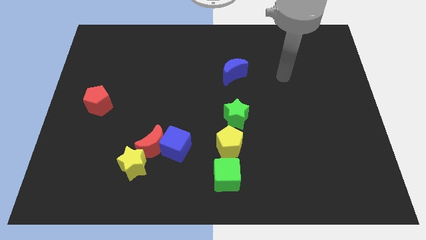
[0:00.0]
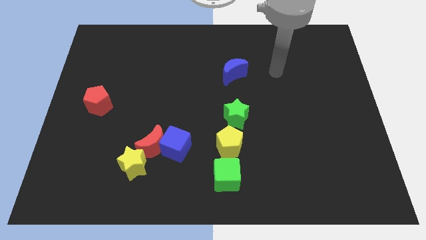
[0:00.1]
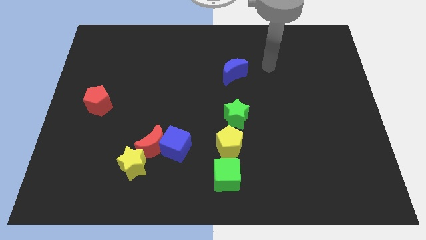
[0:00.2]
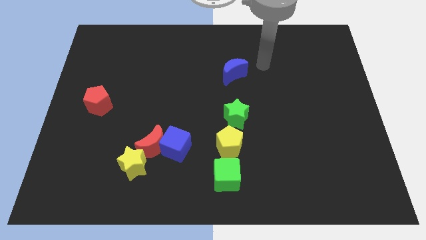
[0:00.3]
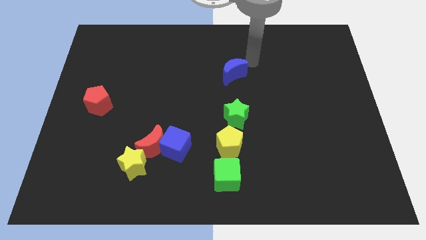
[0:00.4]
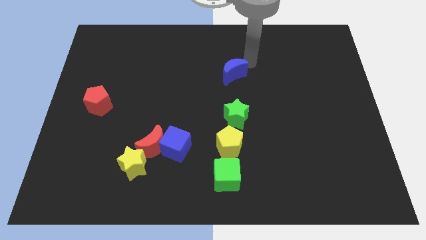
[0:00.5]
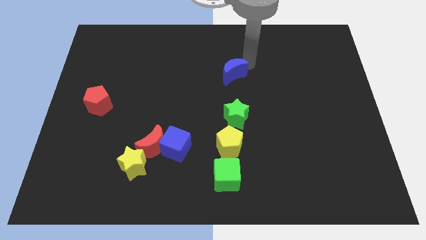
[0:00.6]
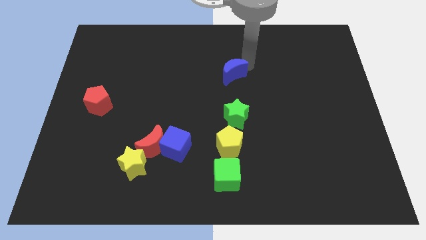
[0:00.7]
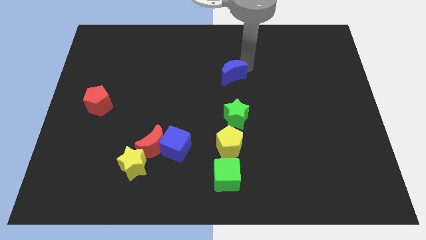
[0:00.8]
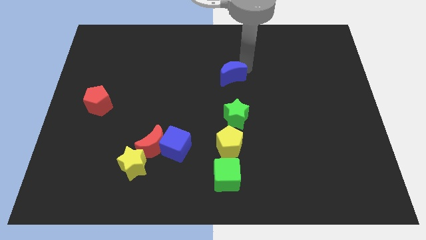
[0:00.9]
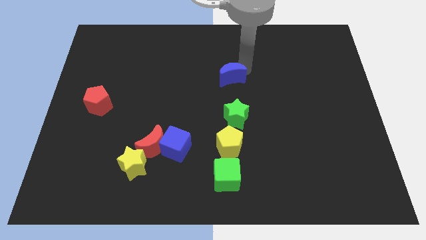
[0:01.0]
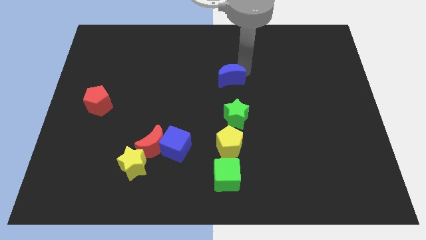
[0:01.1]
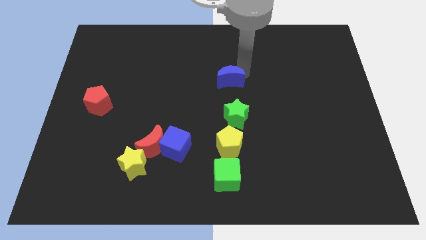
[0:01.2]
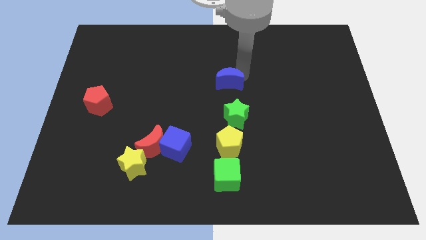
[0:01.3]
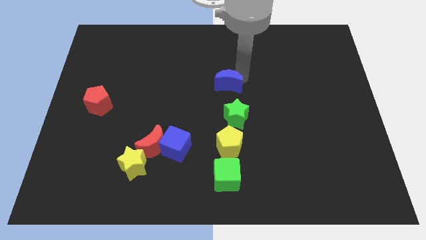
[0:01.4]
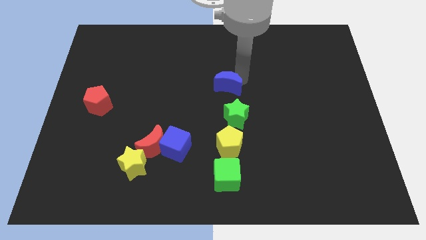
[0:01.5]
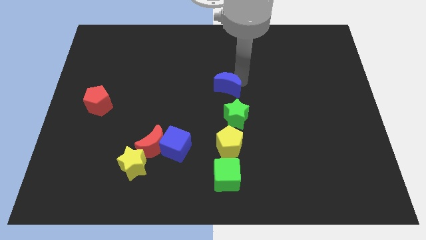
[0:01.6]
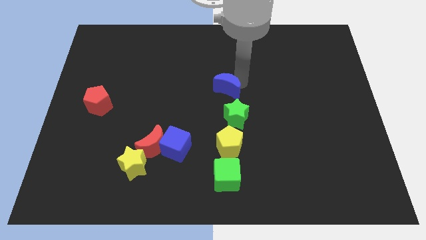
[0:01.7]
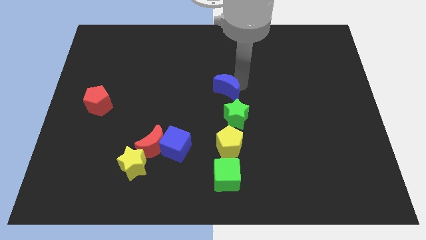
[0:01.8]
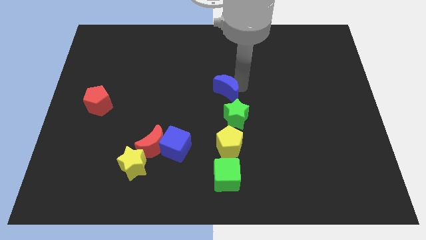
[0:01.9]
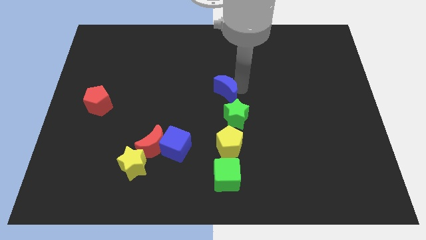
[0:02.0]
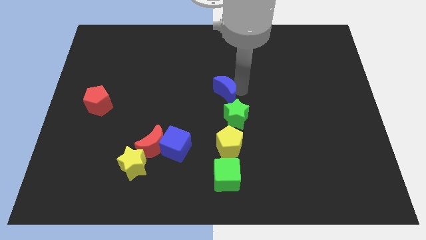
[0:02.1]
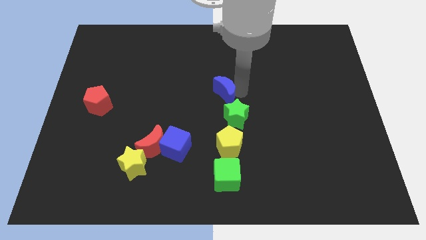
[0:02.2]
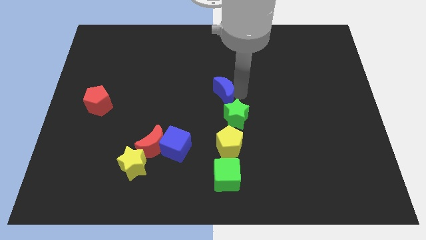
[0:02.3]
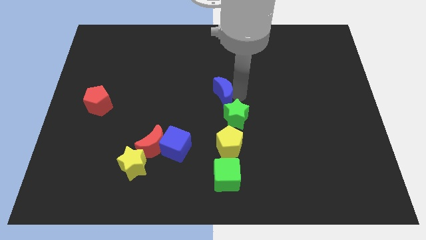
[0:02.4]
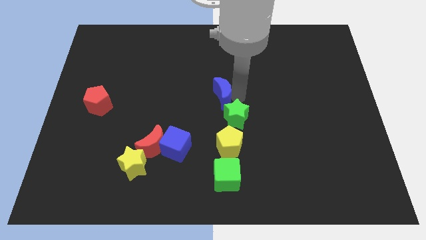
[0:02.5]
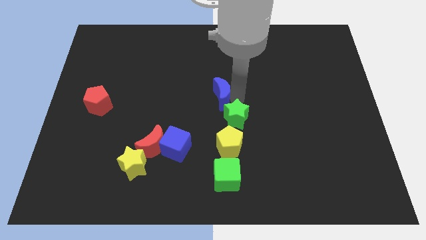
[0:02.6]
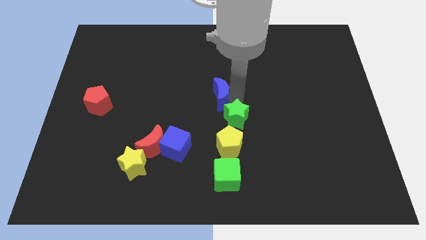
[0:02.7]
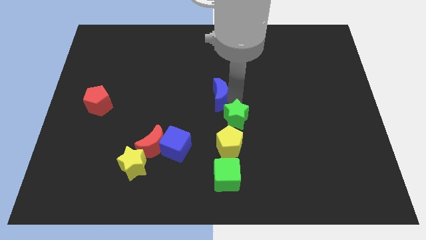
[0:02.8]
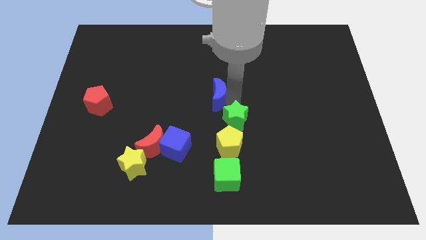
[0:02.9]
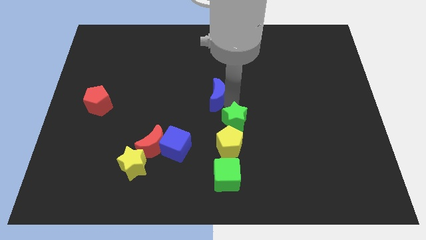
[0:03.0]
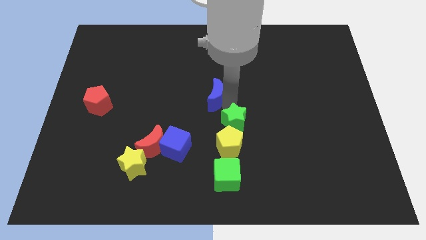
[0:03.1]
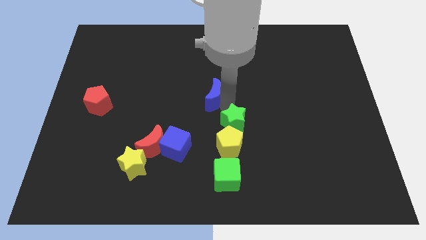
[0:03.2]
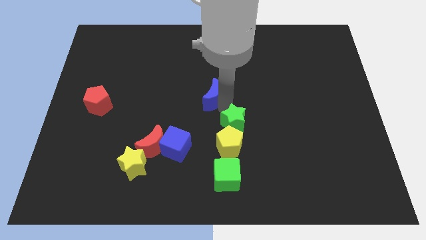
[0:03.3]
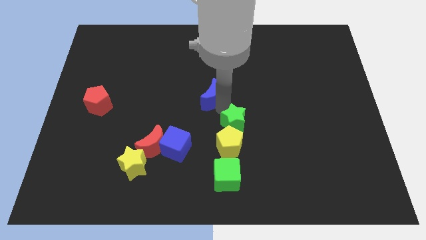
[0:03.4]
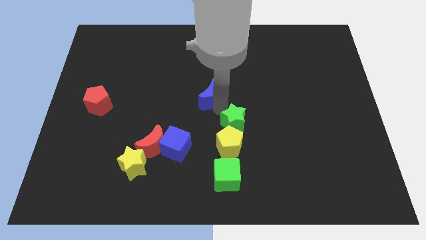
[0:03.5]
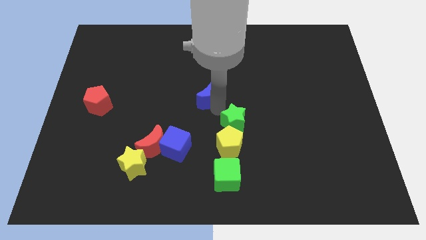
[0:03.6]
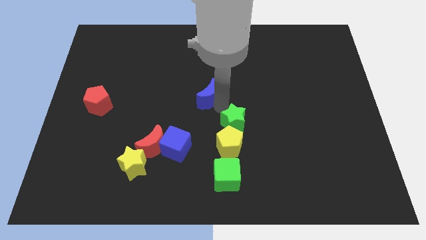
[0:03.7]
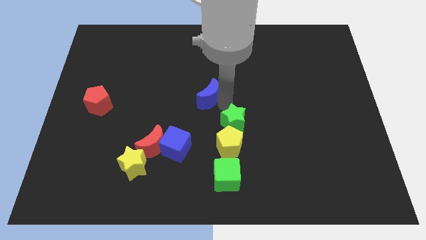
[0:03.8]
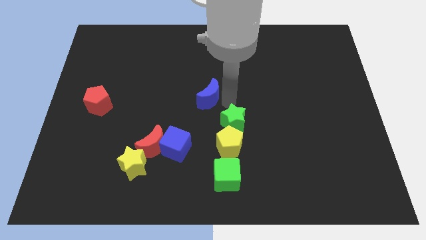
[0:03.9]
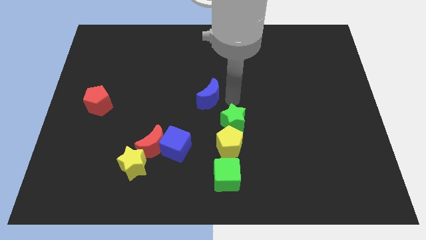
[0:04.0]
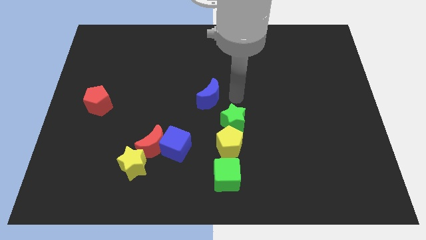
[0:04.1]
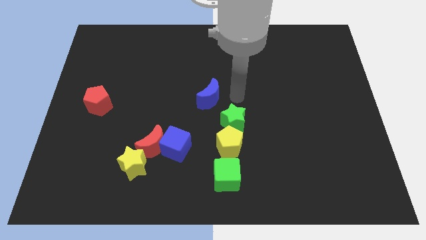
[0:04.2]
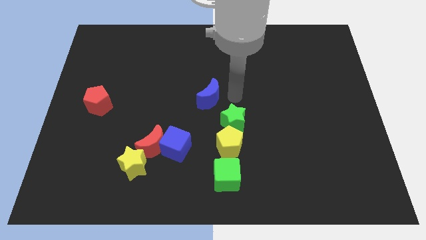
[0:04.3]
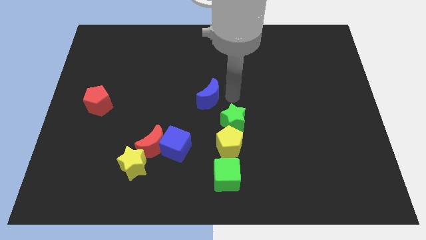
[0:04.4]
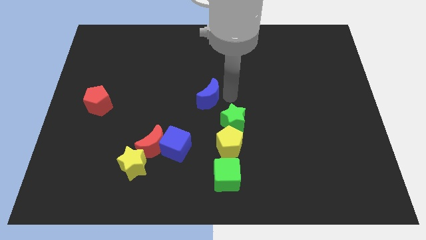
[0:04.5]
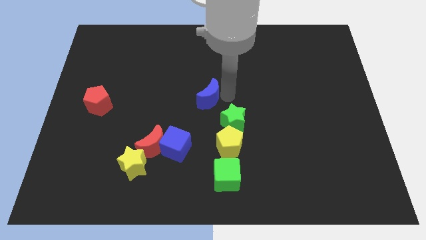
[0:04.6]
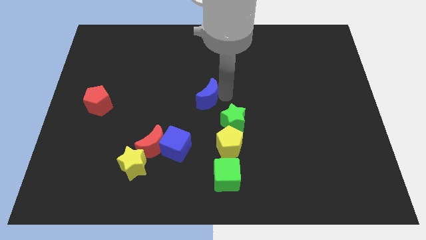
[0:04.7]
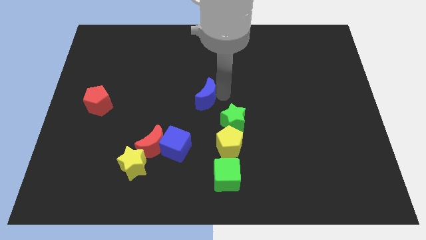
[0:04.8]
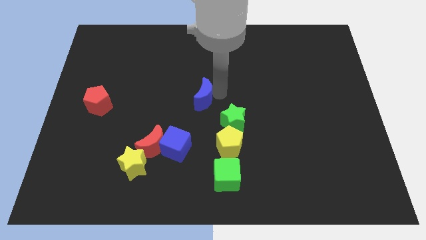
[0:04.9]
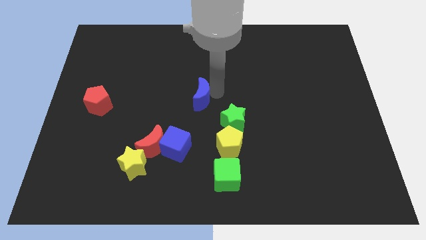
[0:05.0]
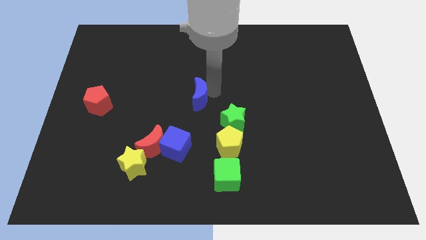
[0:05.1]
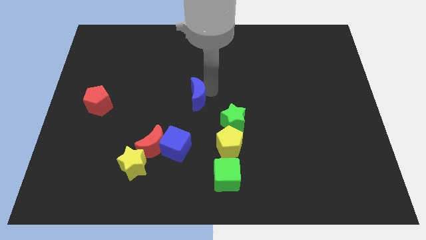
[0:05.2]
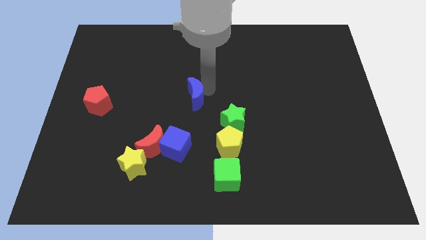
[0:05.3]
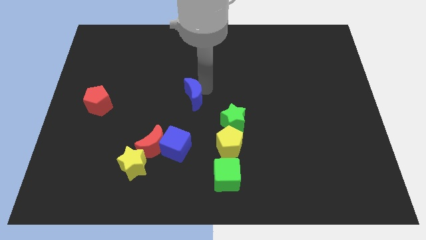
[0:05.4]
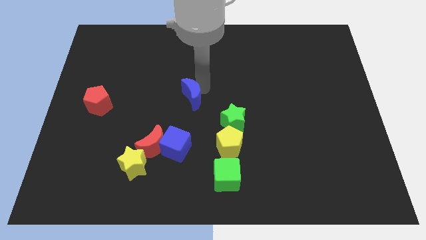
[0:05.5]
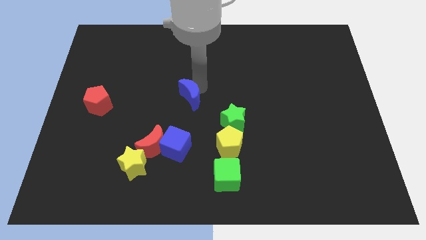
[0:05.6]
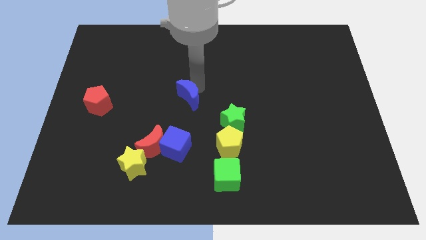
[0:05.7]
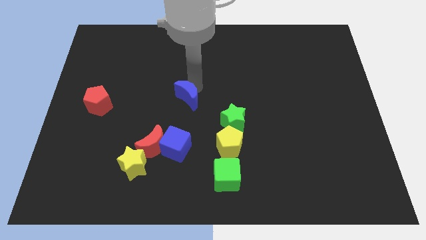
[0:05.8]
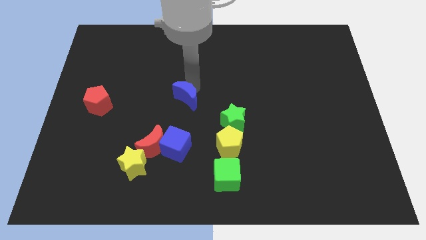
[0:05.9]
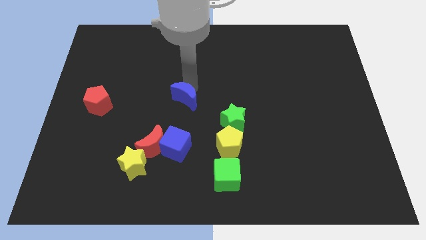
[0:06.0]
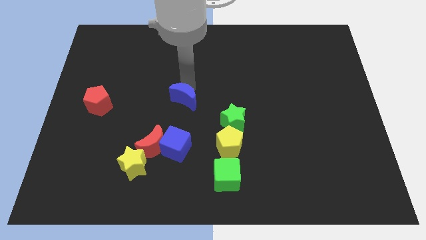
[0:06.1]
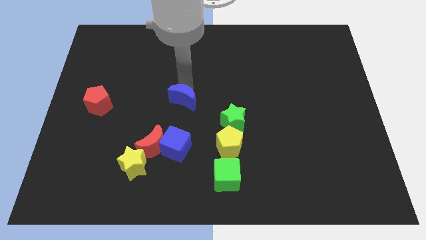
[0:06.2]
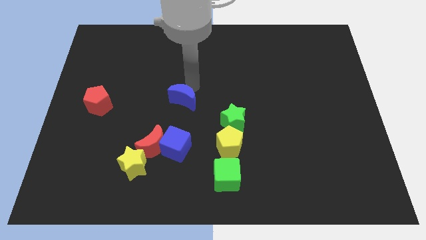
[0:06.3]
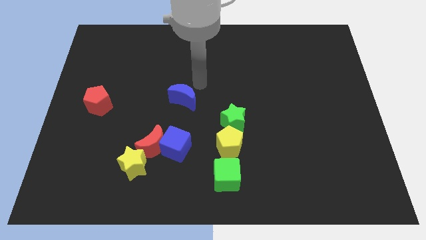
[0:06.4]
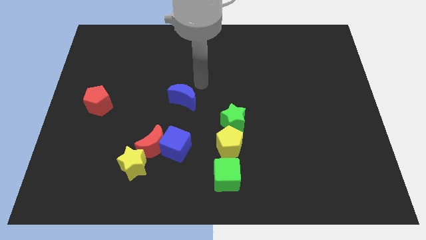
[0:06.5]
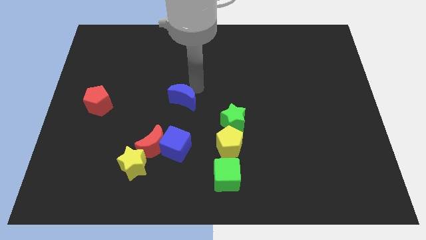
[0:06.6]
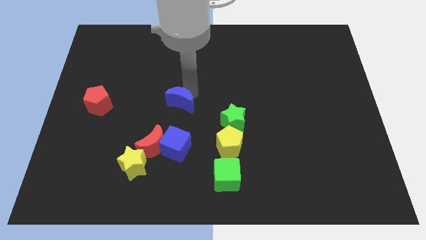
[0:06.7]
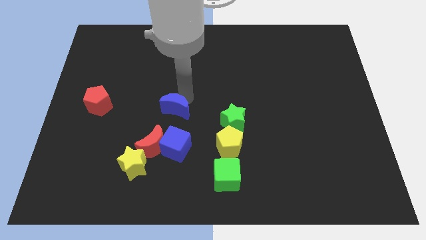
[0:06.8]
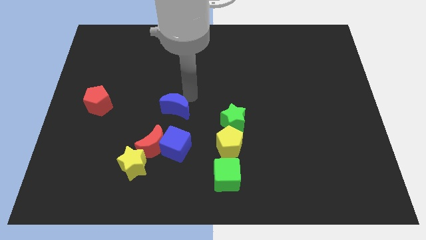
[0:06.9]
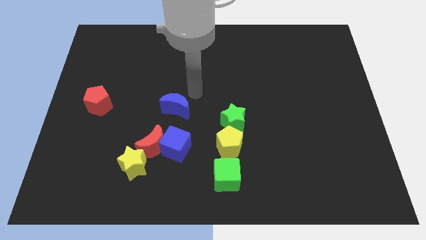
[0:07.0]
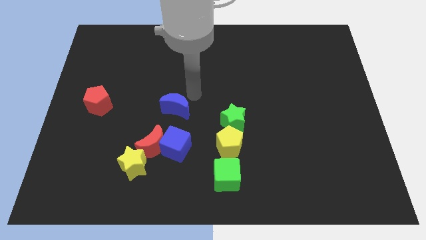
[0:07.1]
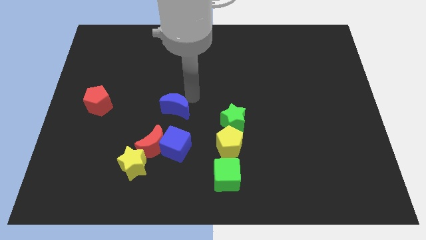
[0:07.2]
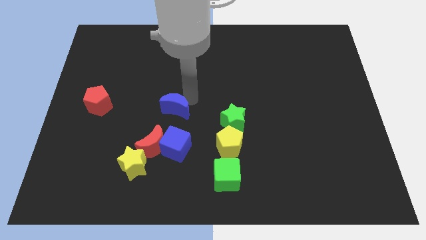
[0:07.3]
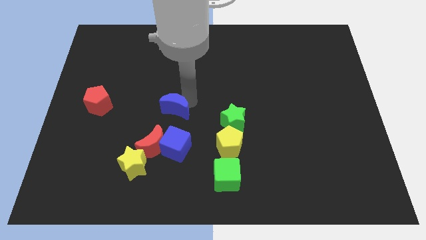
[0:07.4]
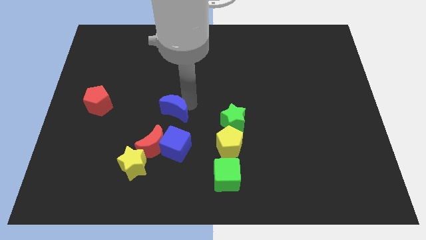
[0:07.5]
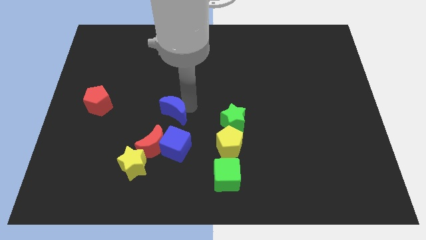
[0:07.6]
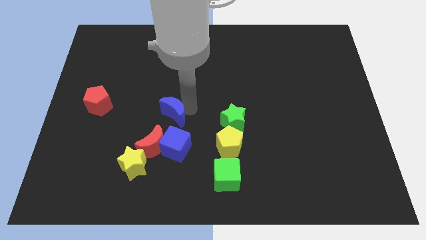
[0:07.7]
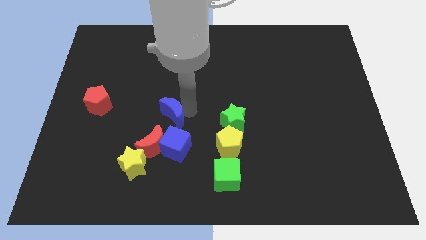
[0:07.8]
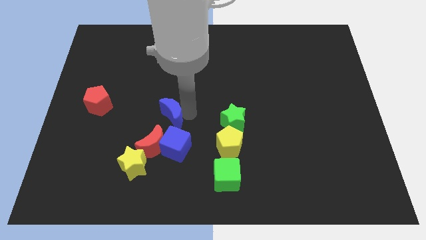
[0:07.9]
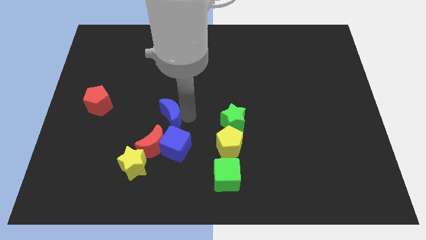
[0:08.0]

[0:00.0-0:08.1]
slide the blue moon to the top left of the blue cube
